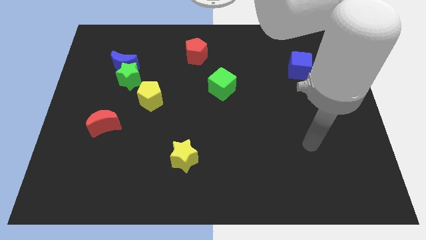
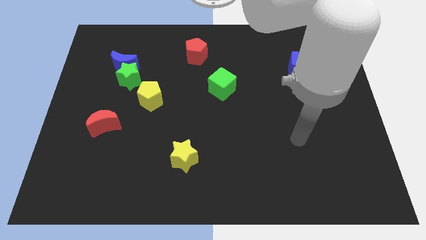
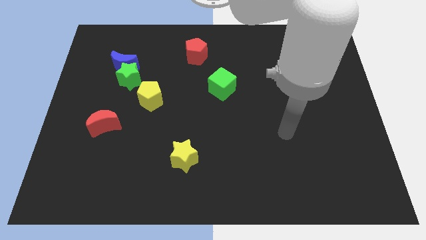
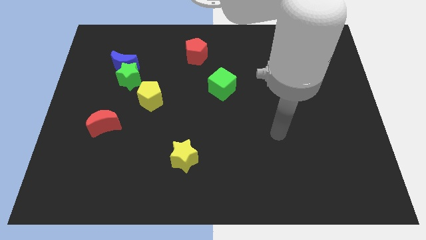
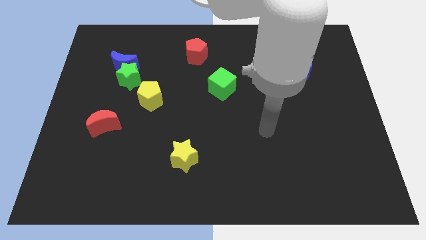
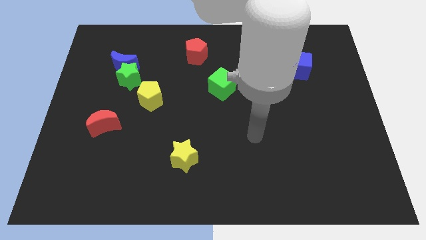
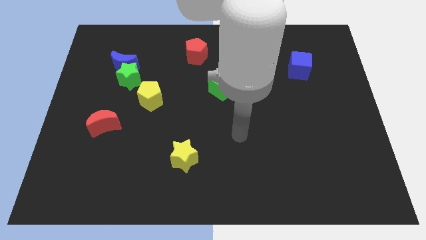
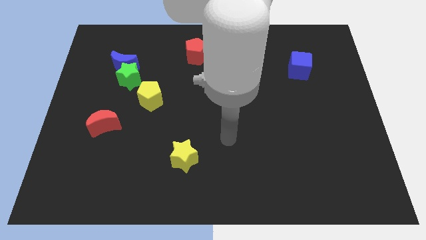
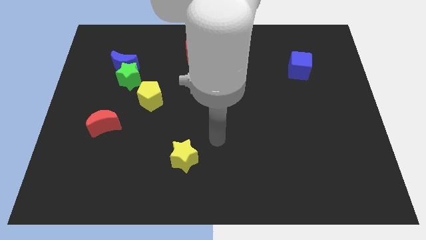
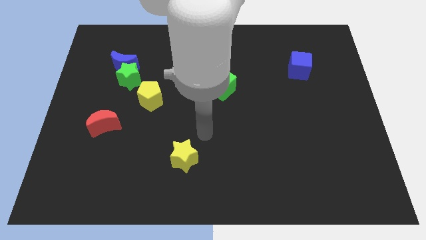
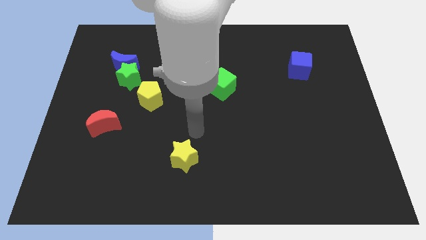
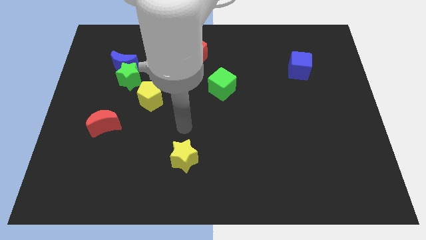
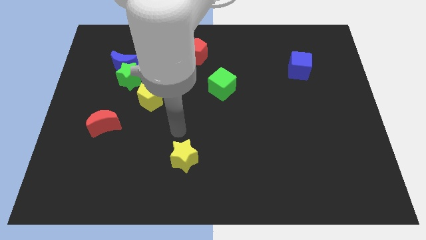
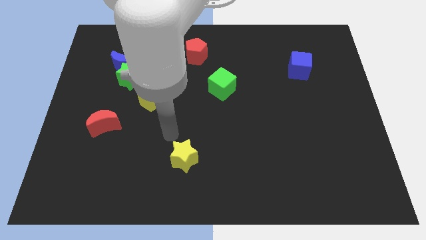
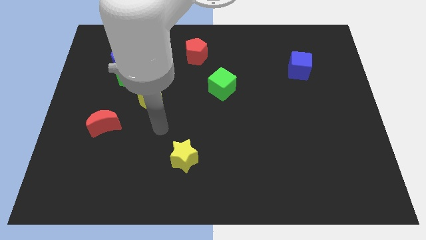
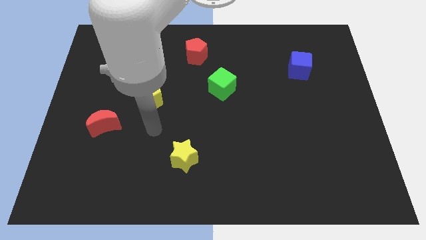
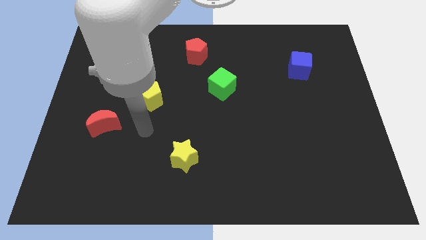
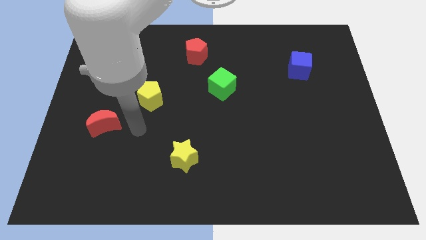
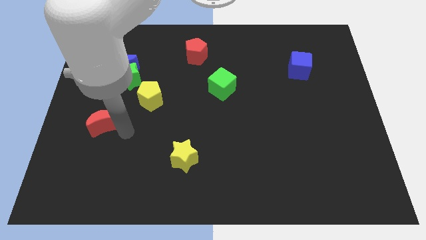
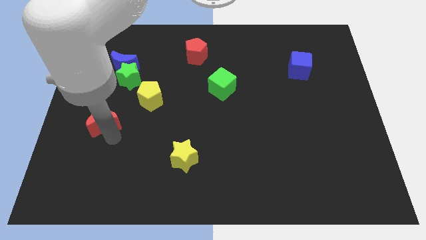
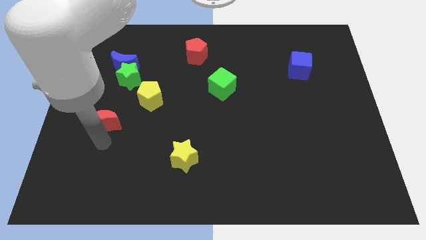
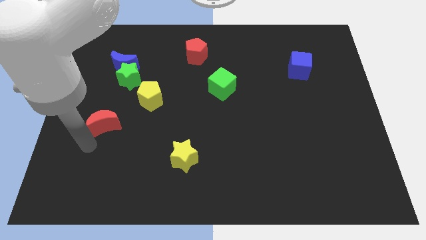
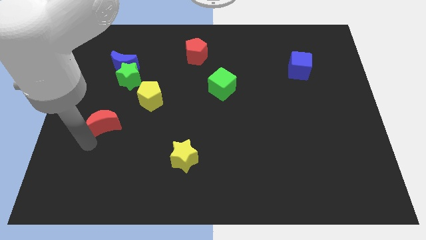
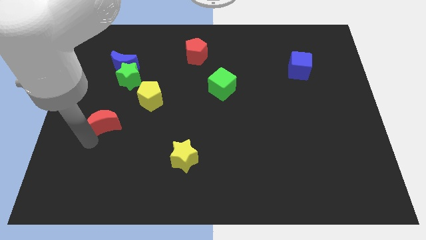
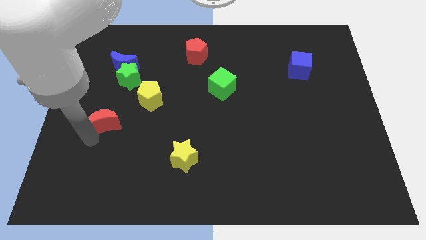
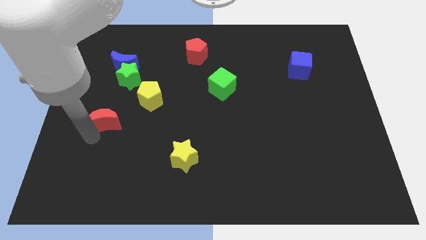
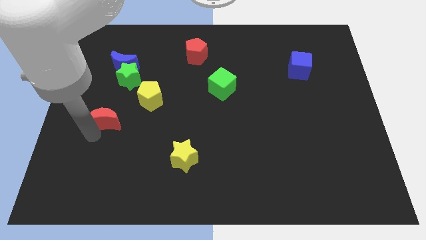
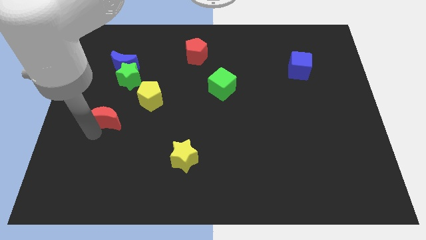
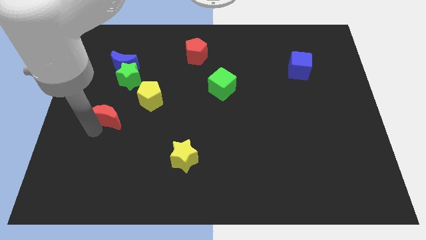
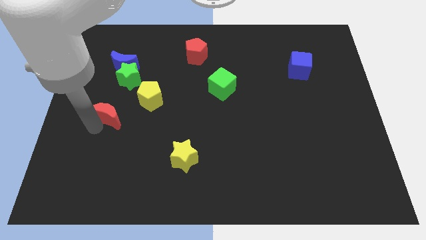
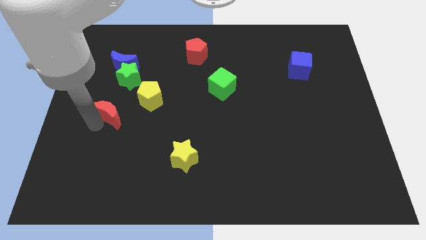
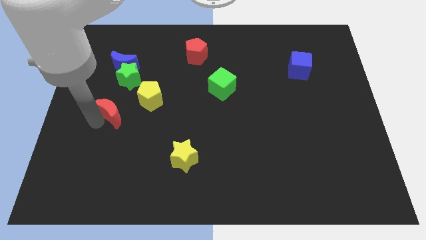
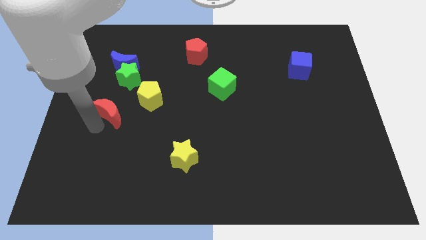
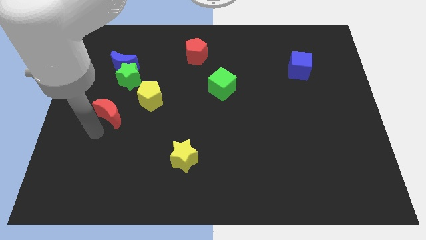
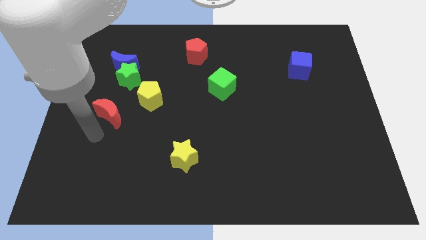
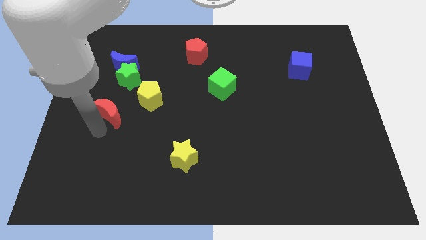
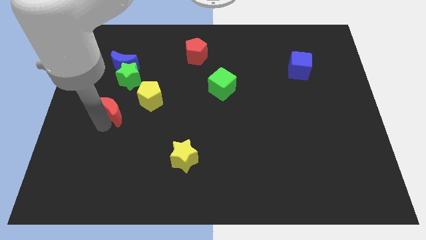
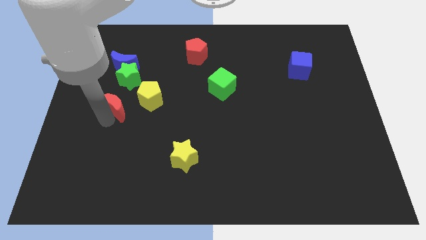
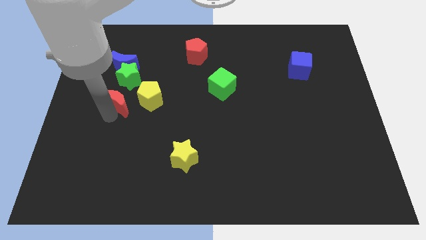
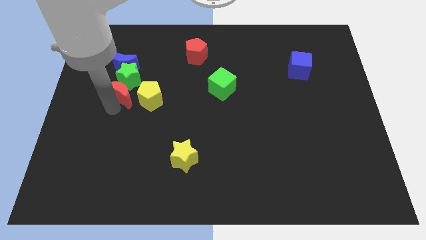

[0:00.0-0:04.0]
slide the red moon up and then right a little bit

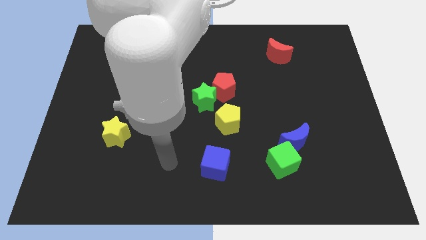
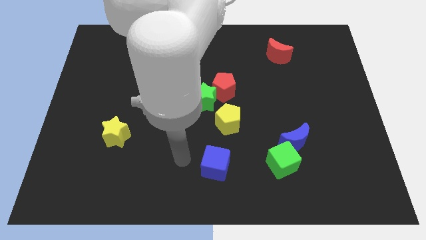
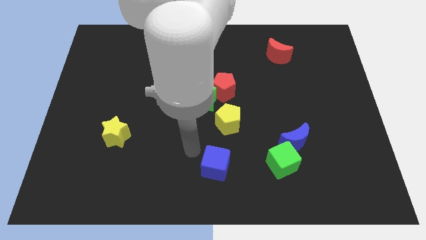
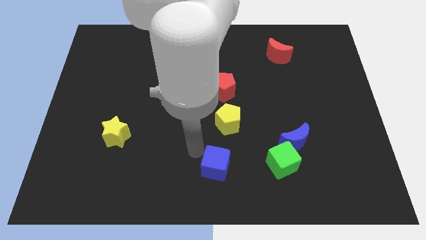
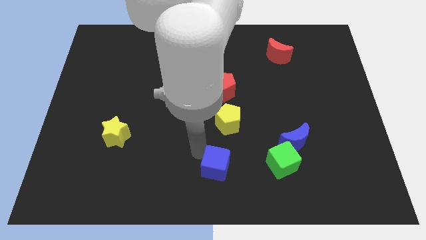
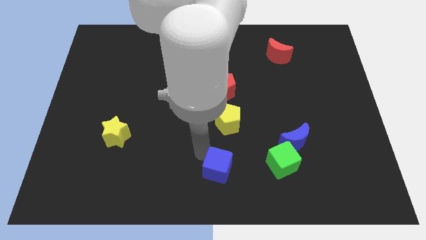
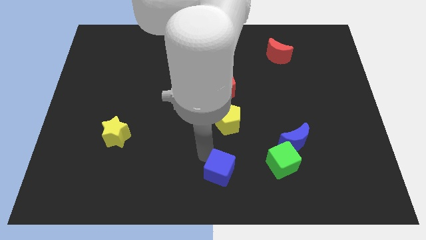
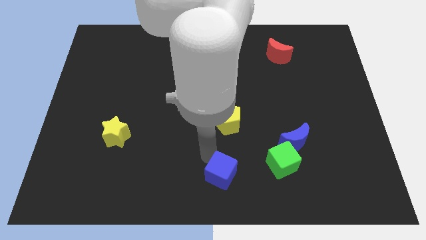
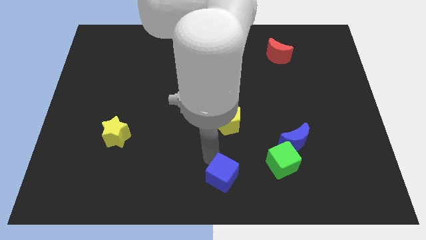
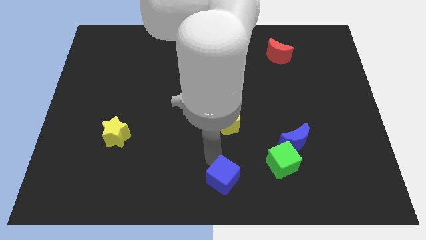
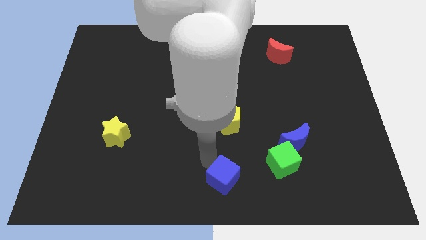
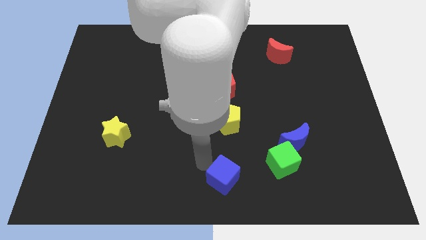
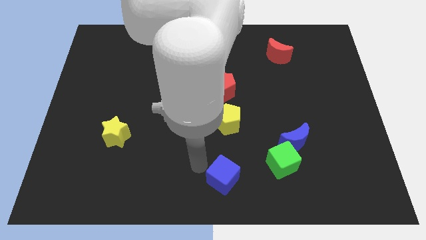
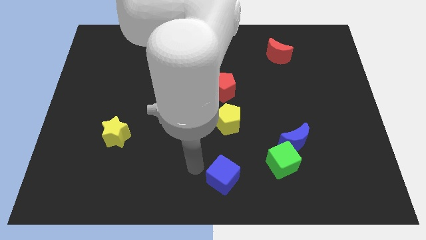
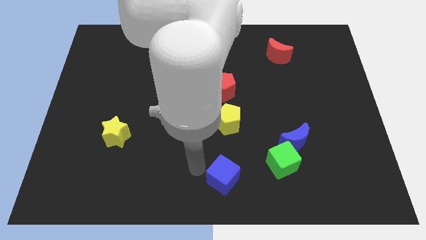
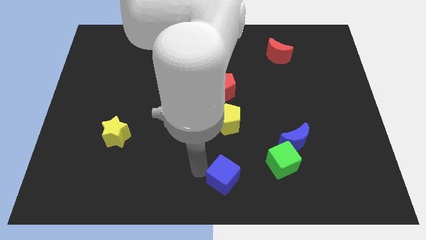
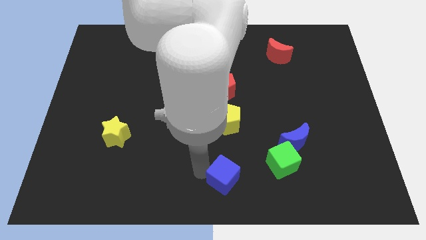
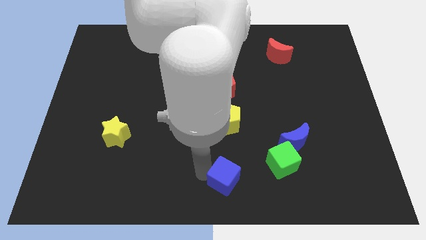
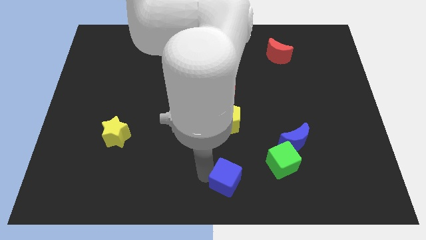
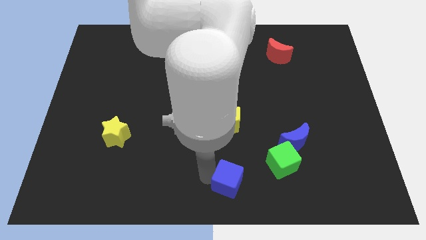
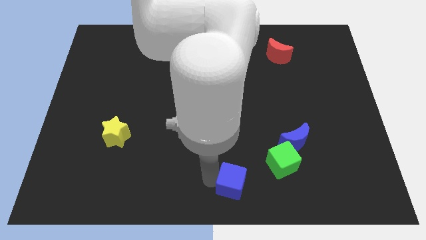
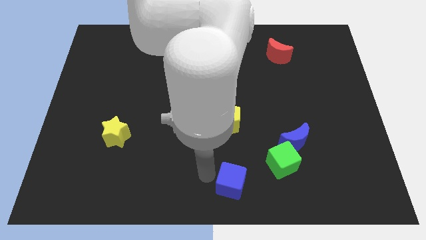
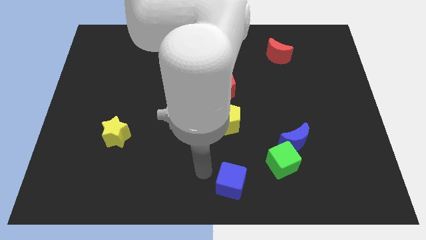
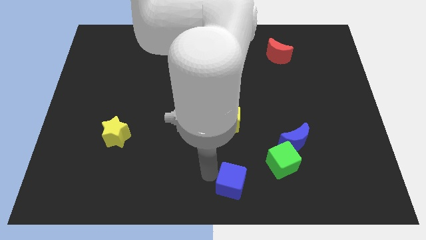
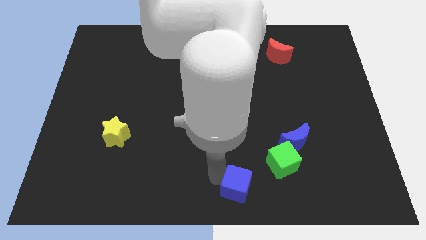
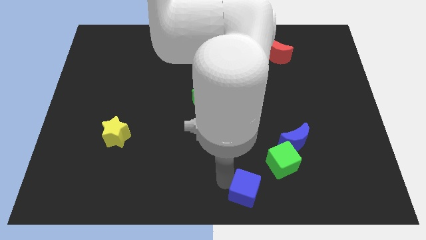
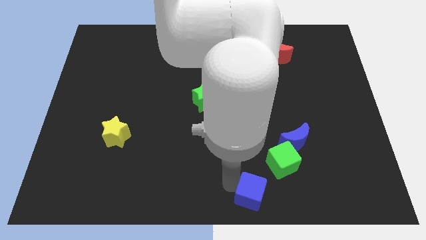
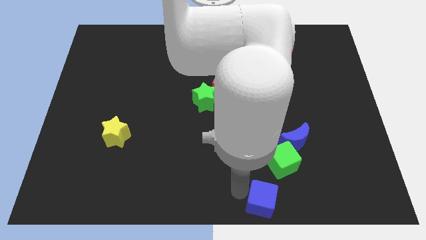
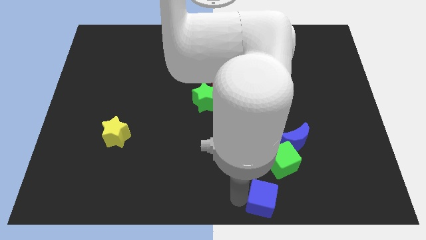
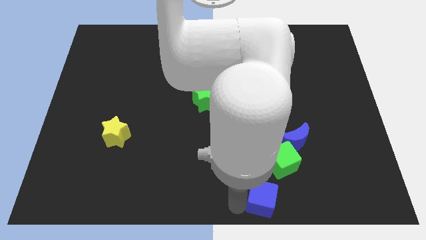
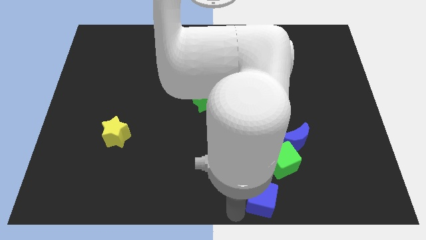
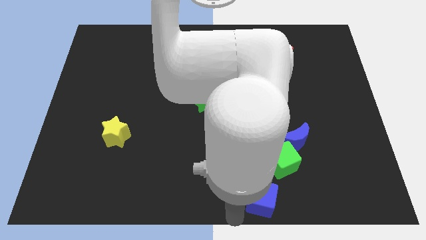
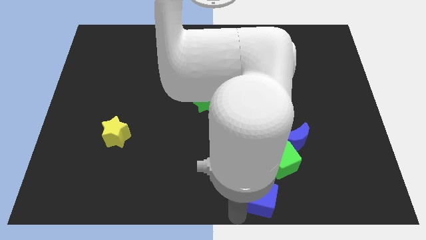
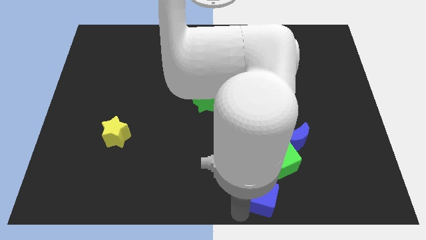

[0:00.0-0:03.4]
push the blue cube somewhat right

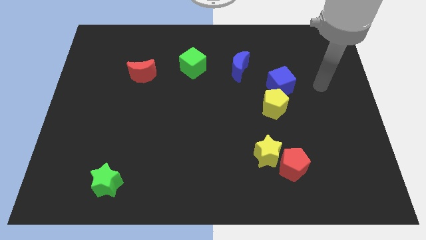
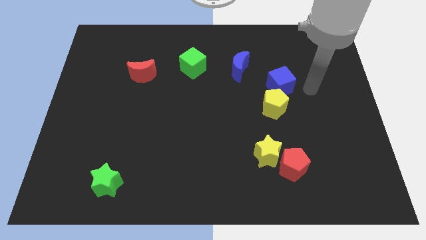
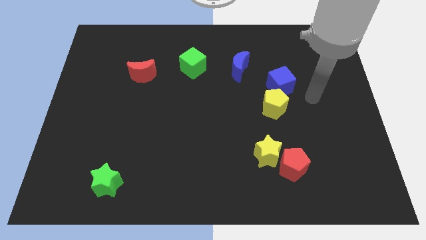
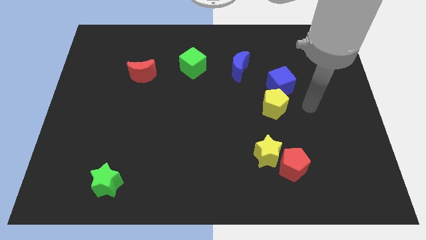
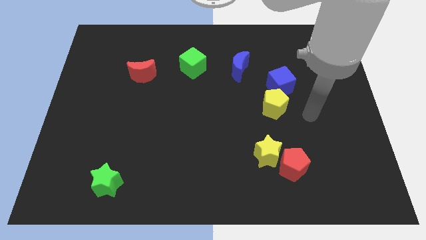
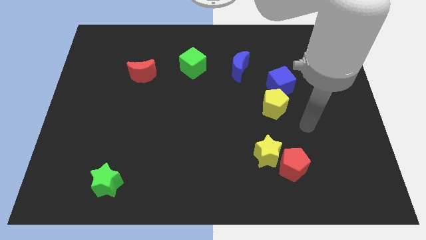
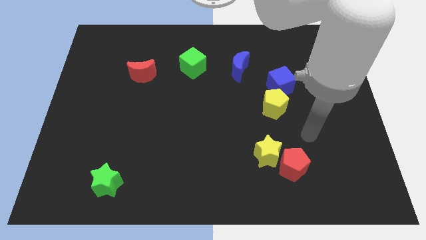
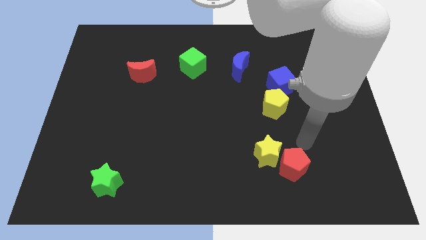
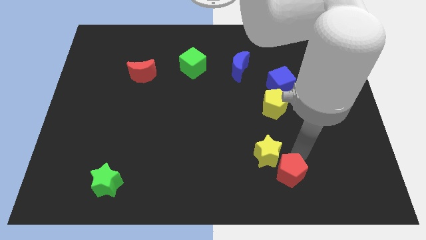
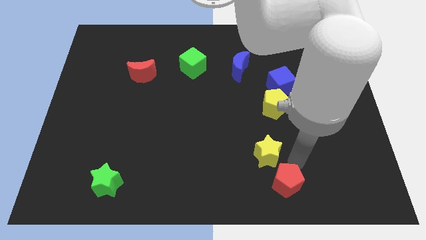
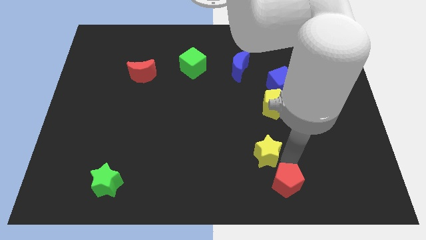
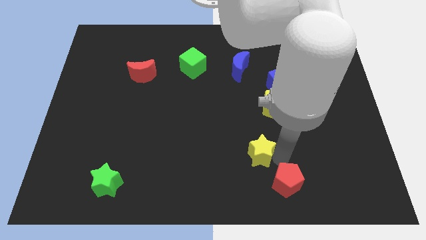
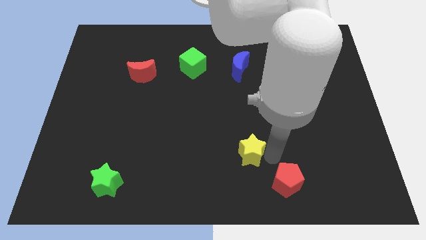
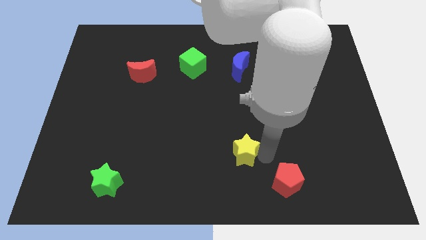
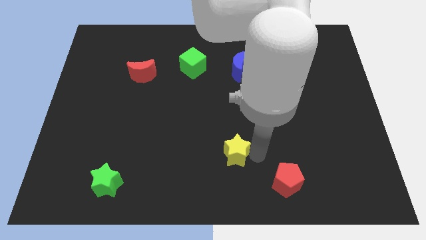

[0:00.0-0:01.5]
slide the yellow star a bit left
